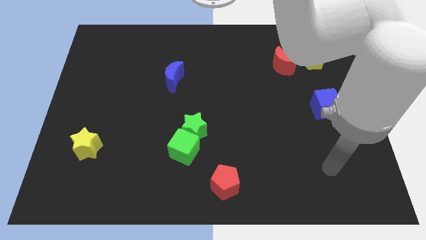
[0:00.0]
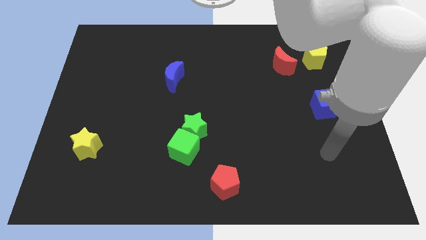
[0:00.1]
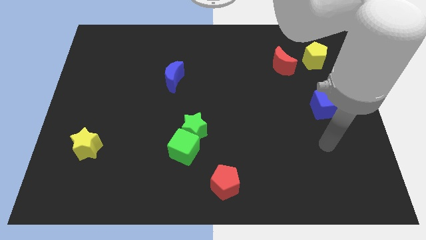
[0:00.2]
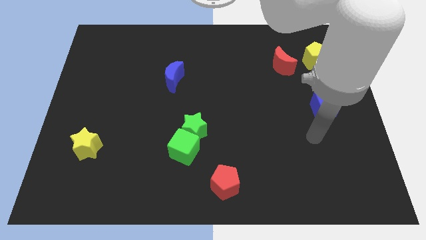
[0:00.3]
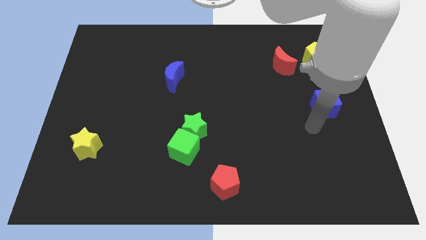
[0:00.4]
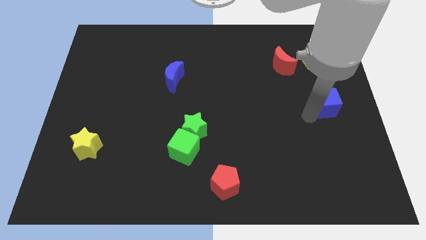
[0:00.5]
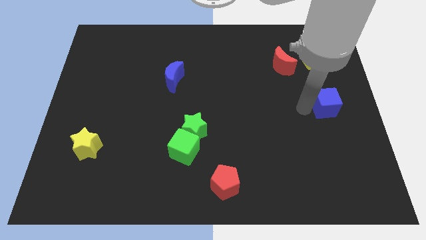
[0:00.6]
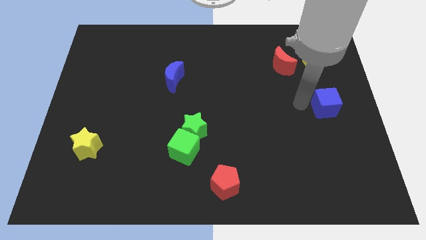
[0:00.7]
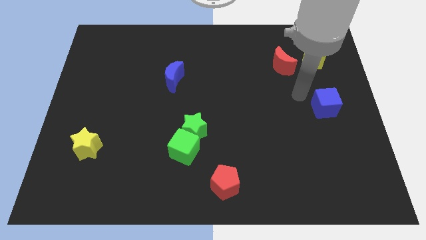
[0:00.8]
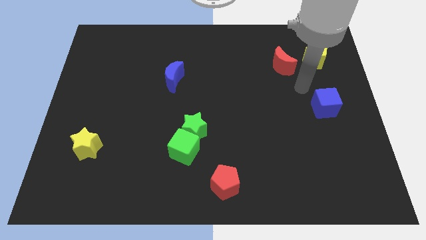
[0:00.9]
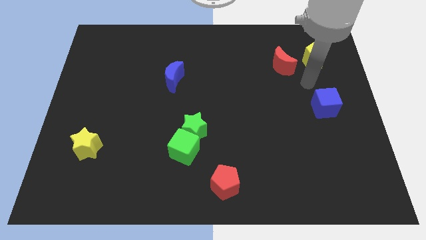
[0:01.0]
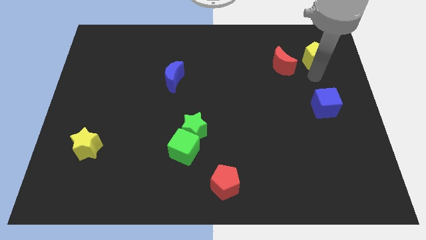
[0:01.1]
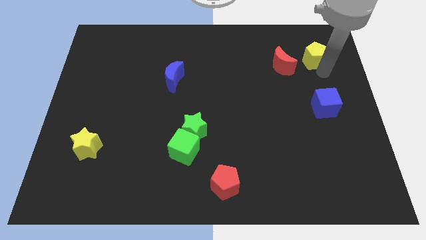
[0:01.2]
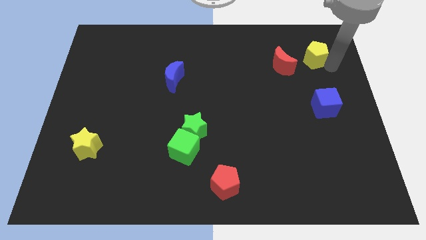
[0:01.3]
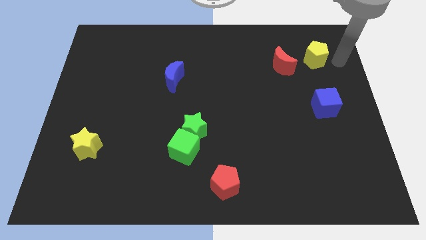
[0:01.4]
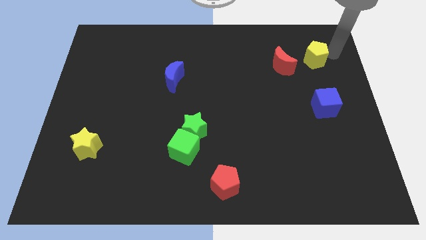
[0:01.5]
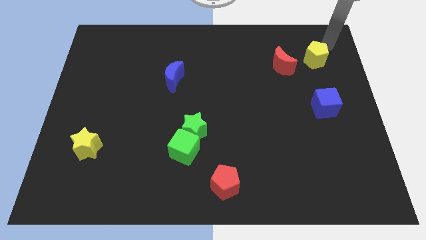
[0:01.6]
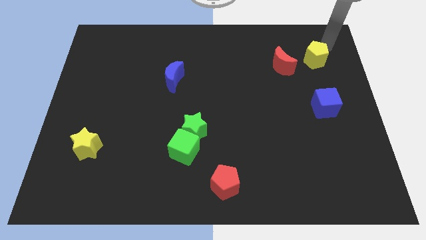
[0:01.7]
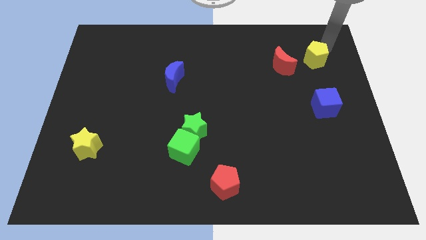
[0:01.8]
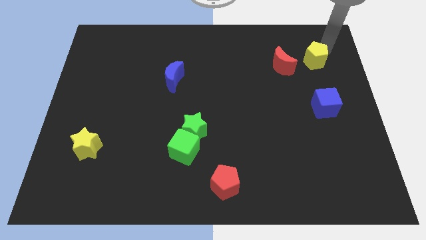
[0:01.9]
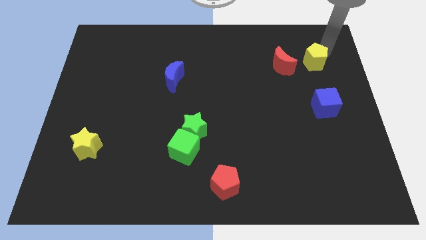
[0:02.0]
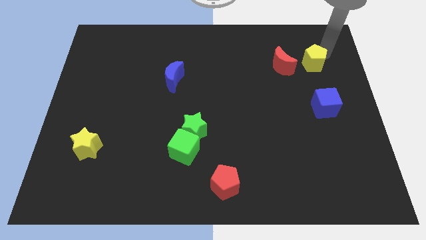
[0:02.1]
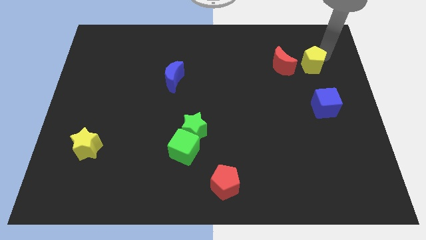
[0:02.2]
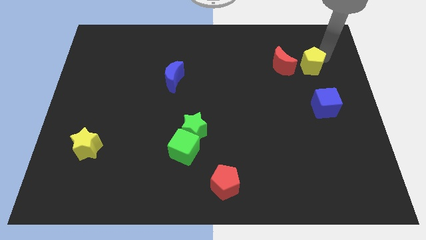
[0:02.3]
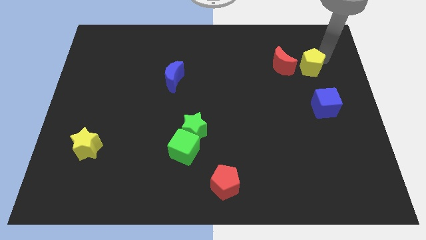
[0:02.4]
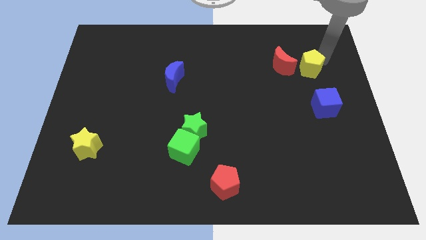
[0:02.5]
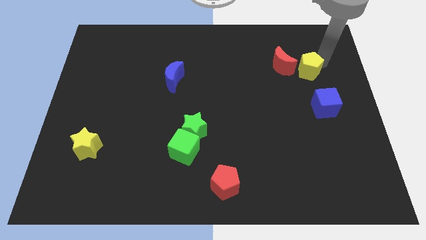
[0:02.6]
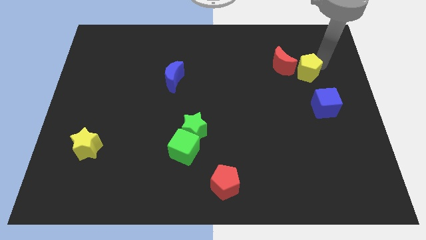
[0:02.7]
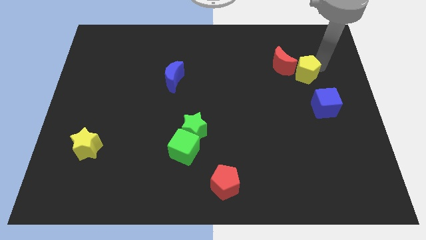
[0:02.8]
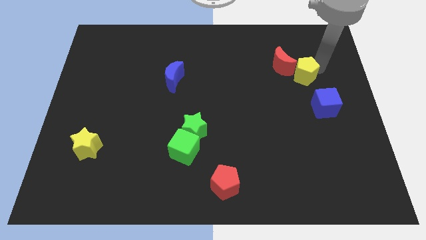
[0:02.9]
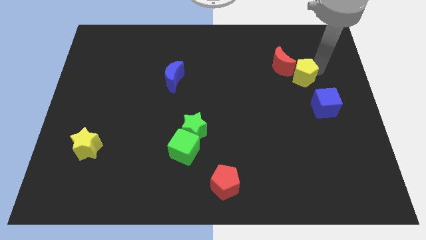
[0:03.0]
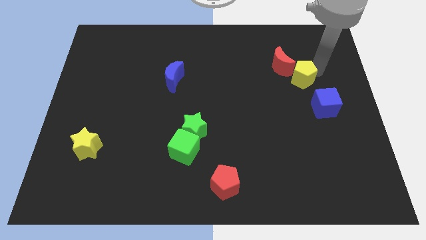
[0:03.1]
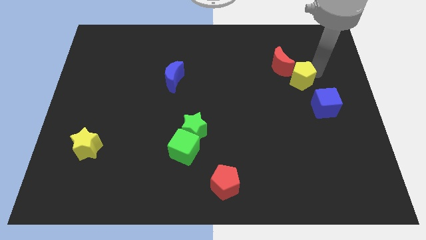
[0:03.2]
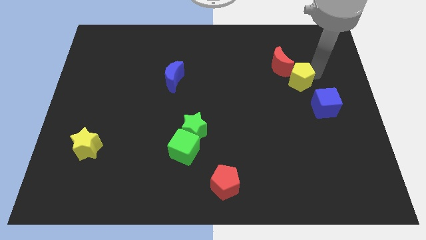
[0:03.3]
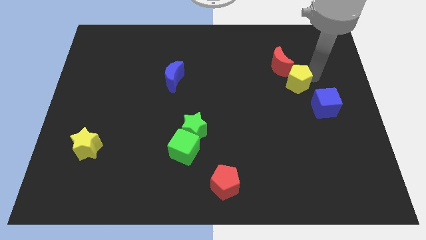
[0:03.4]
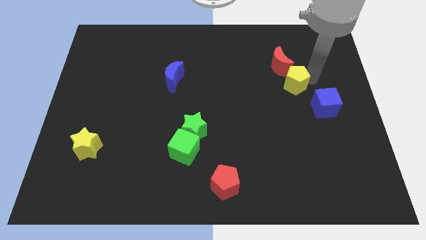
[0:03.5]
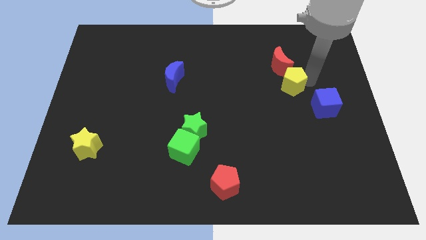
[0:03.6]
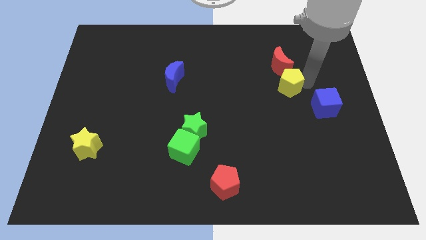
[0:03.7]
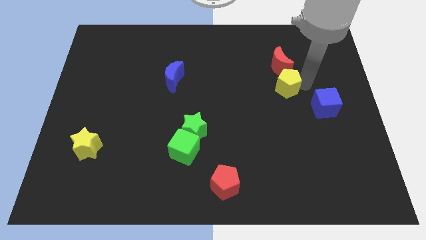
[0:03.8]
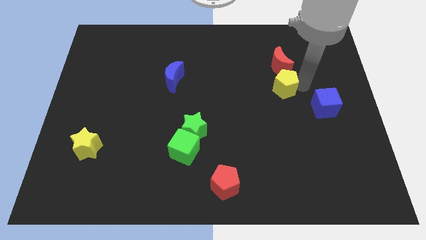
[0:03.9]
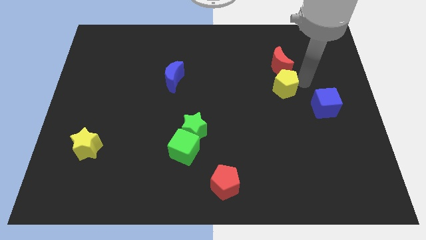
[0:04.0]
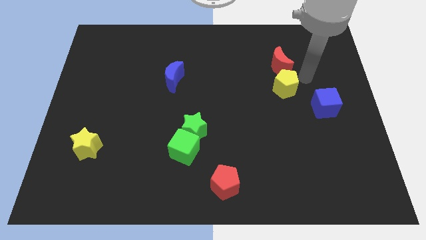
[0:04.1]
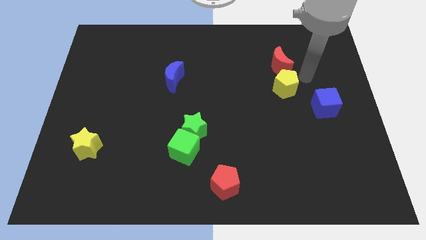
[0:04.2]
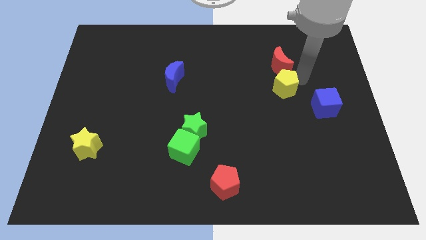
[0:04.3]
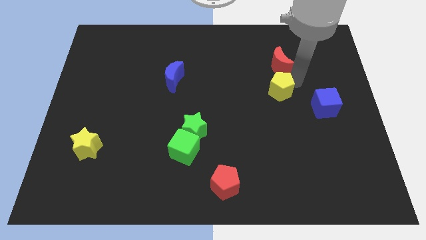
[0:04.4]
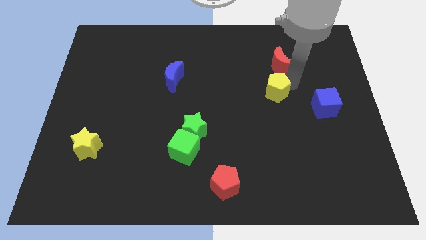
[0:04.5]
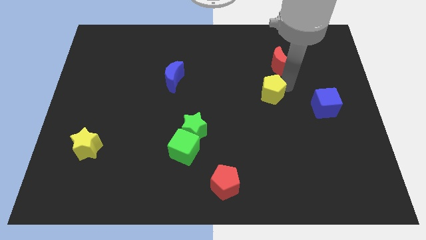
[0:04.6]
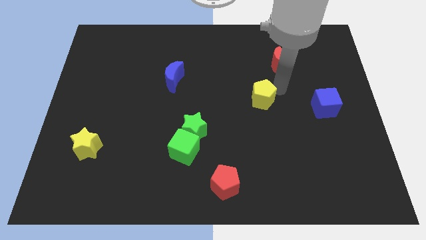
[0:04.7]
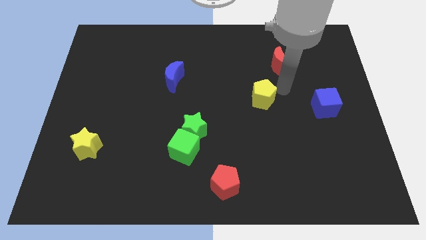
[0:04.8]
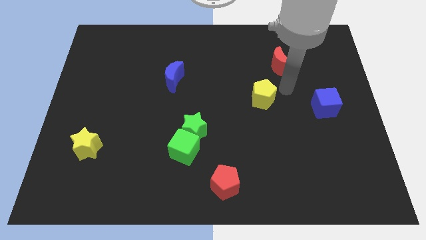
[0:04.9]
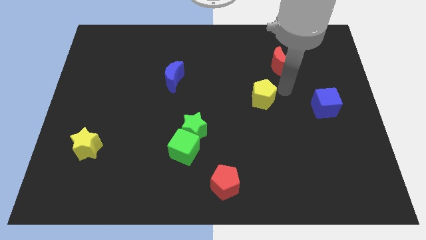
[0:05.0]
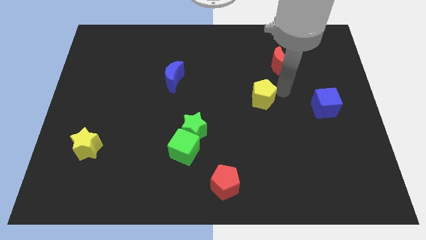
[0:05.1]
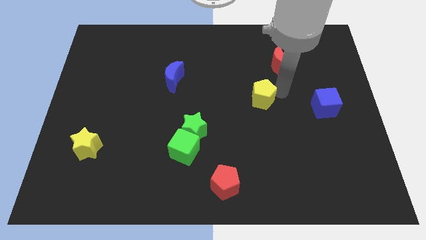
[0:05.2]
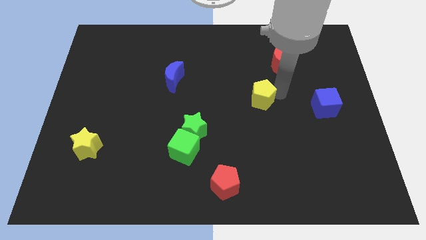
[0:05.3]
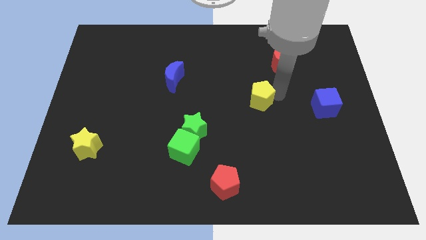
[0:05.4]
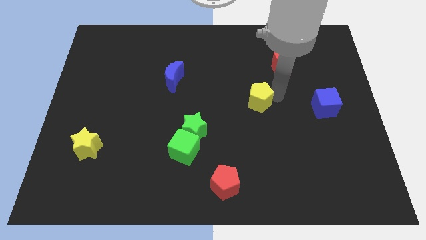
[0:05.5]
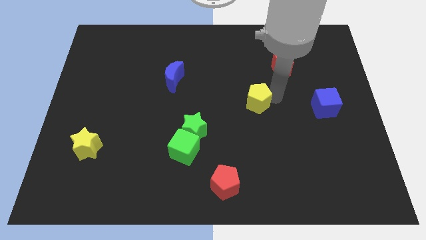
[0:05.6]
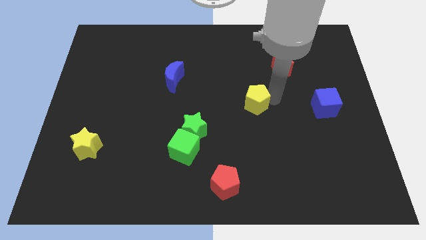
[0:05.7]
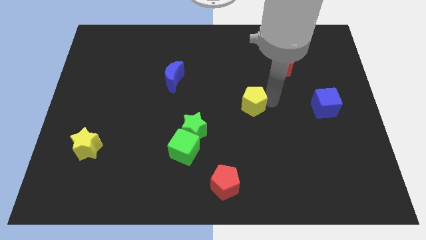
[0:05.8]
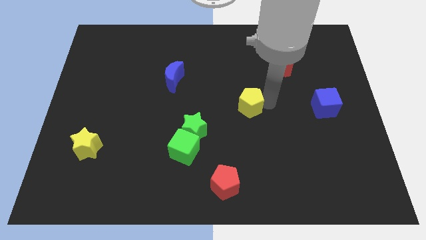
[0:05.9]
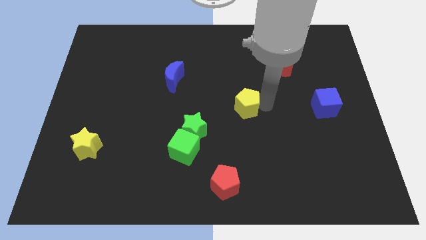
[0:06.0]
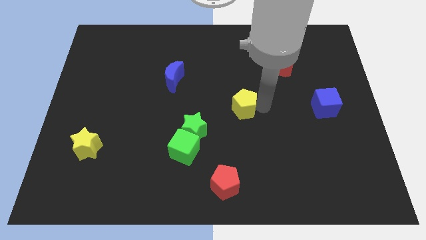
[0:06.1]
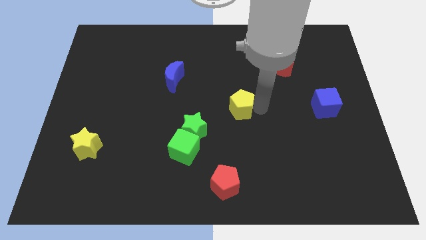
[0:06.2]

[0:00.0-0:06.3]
put the yellow pentagon diagonally up and to the right of the green star

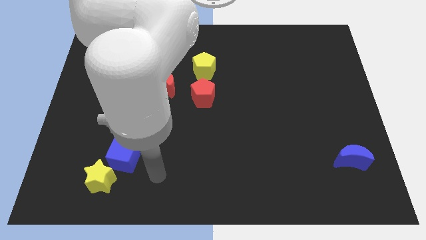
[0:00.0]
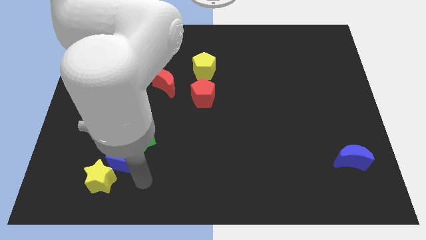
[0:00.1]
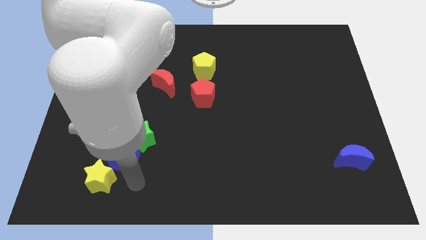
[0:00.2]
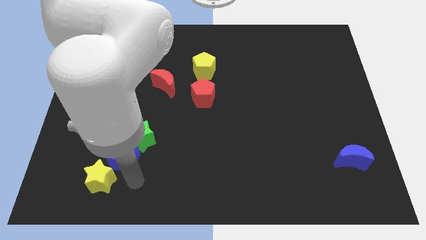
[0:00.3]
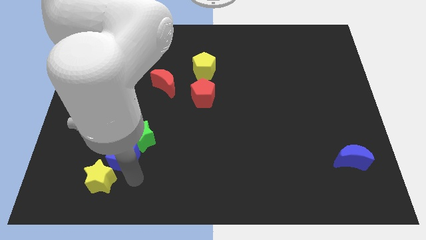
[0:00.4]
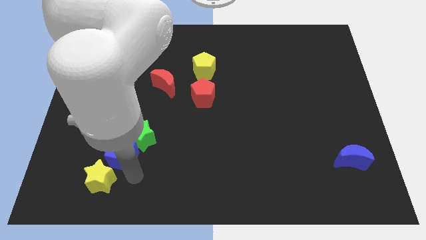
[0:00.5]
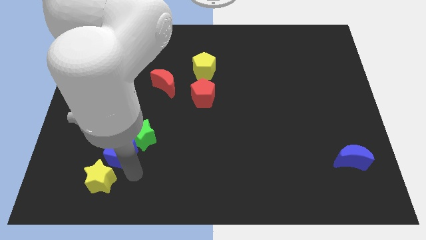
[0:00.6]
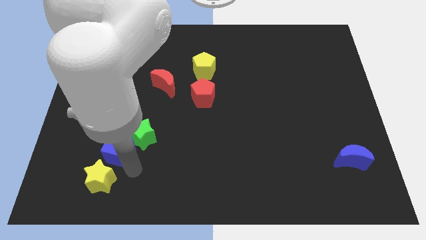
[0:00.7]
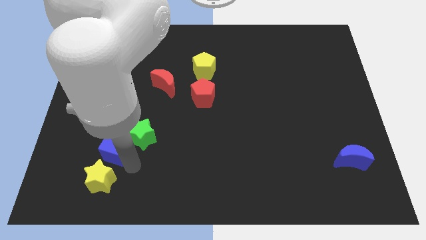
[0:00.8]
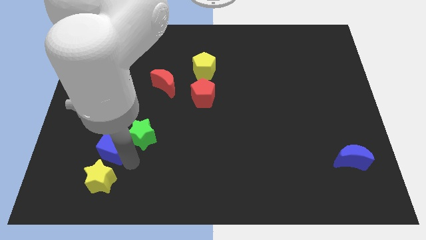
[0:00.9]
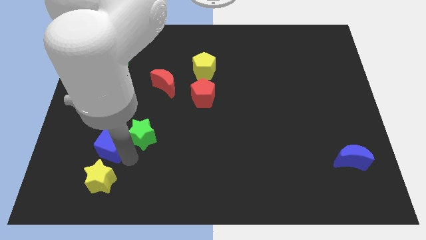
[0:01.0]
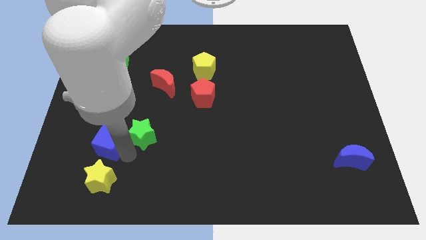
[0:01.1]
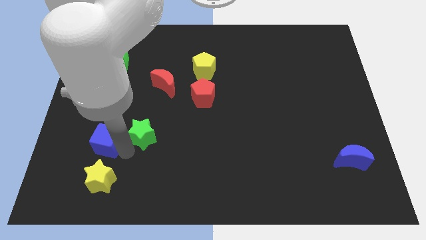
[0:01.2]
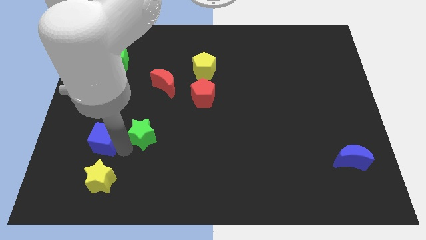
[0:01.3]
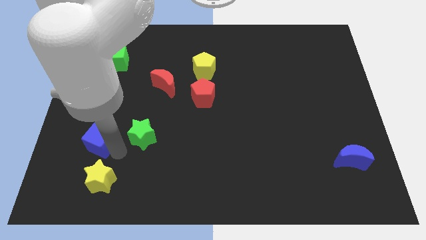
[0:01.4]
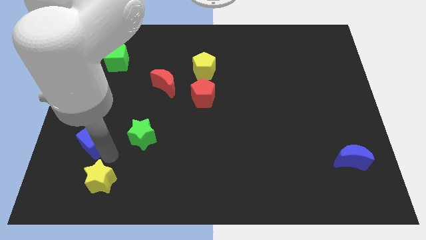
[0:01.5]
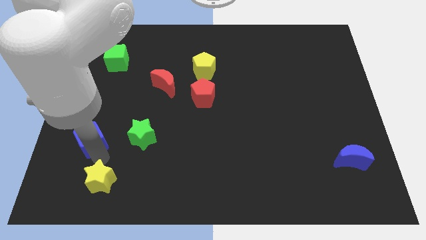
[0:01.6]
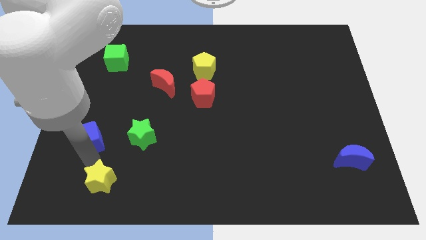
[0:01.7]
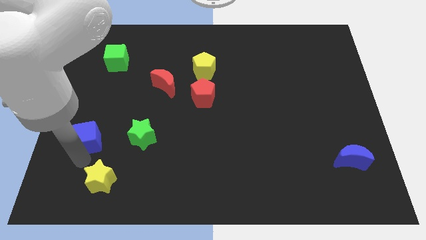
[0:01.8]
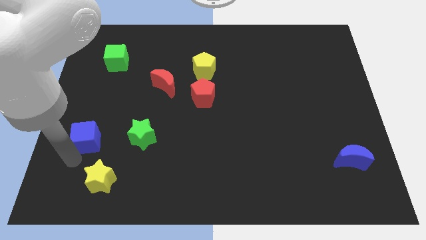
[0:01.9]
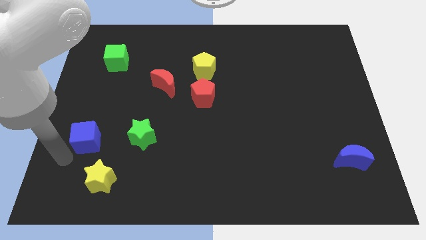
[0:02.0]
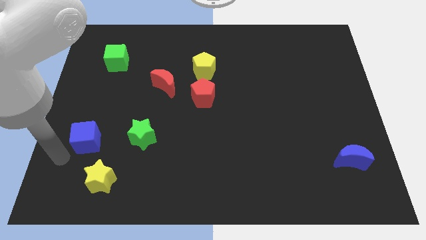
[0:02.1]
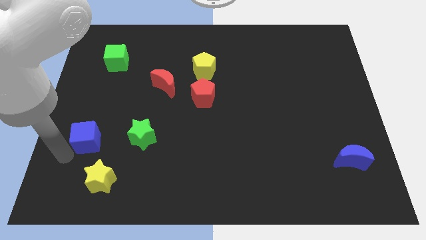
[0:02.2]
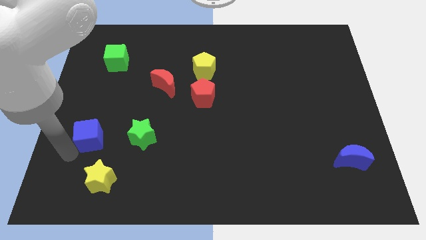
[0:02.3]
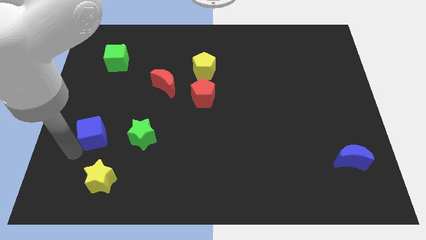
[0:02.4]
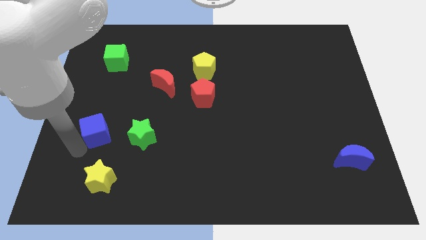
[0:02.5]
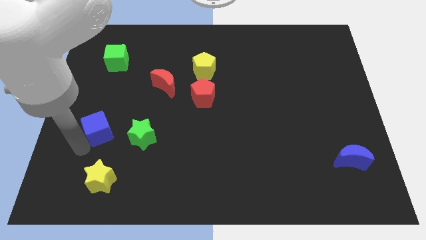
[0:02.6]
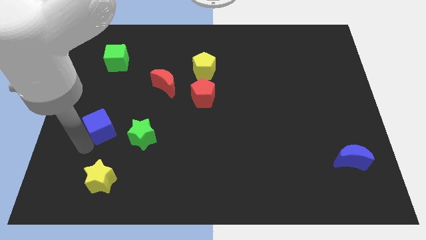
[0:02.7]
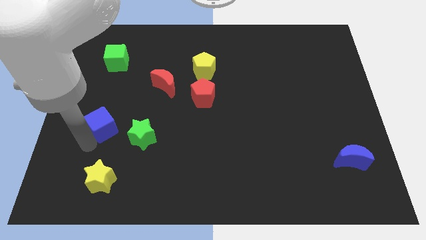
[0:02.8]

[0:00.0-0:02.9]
push the blue cube to the top left of the green star
